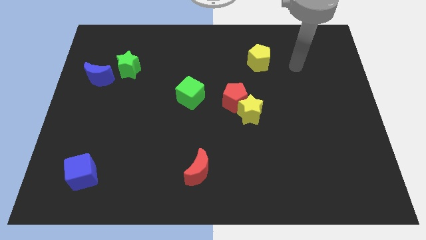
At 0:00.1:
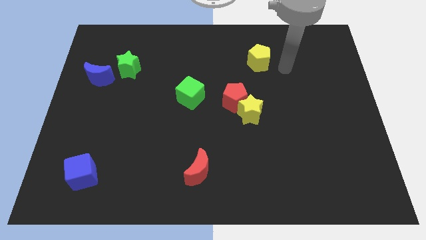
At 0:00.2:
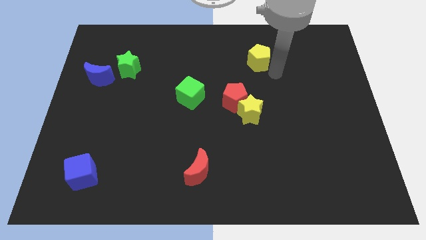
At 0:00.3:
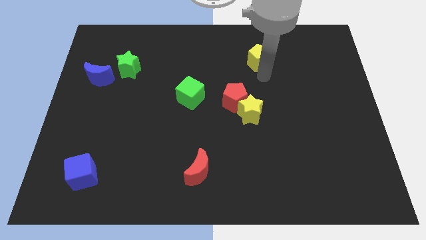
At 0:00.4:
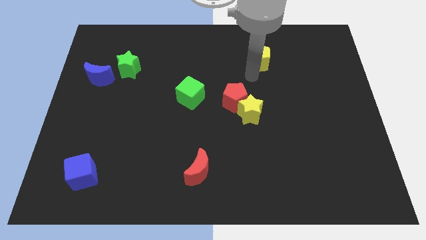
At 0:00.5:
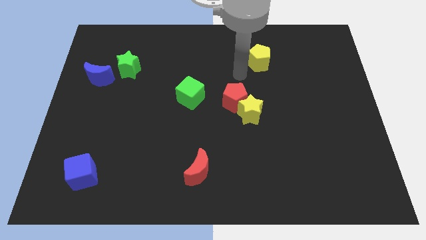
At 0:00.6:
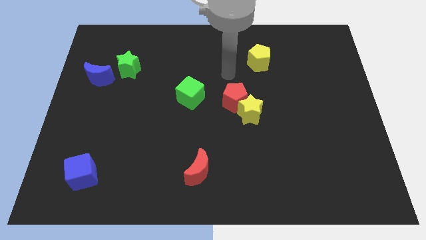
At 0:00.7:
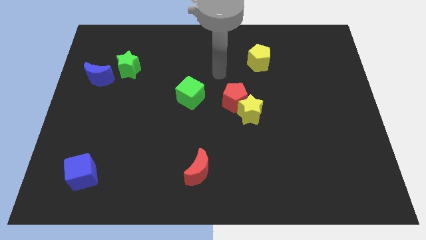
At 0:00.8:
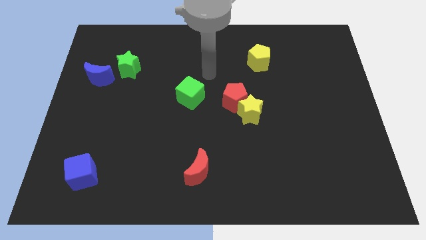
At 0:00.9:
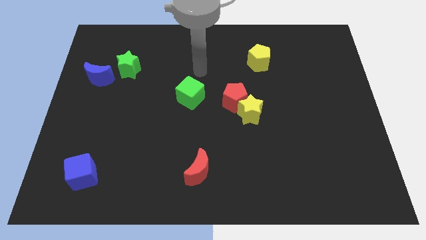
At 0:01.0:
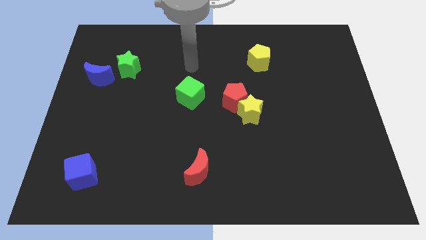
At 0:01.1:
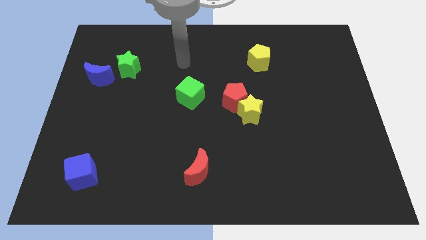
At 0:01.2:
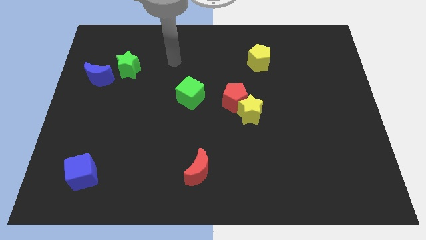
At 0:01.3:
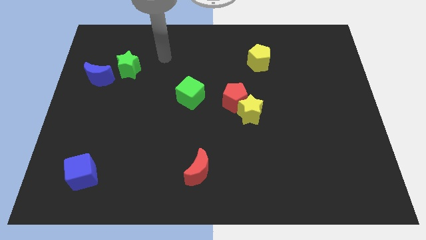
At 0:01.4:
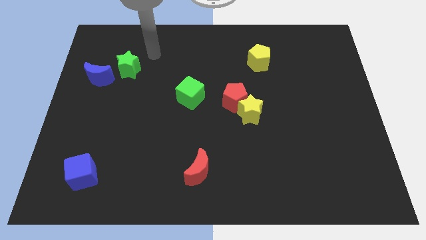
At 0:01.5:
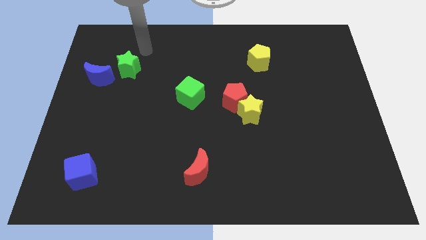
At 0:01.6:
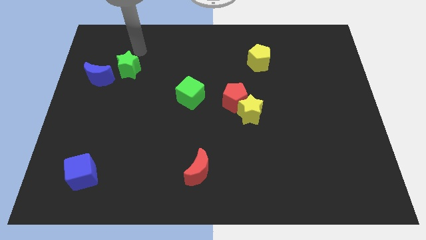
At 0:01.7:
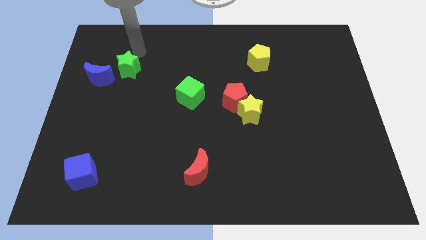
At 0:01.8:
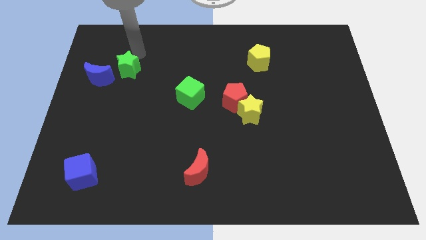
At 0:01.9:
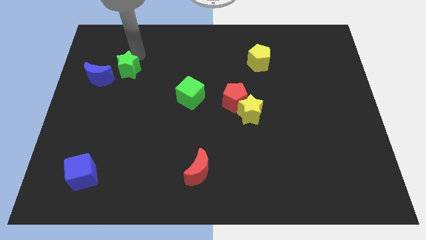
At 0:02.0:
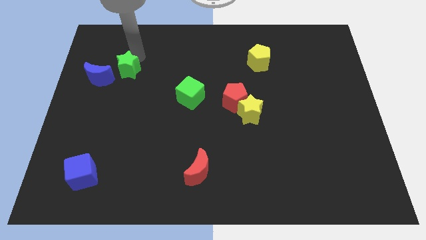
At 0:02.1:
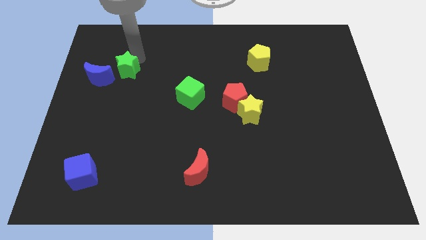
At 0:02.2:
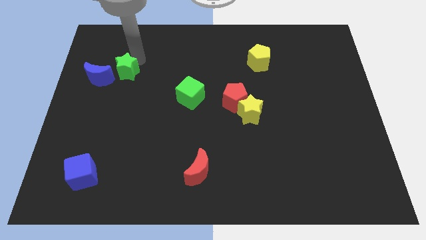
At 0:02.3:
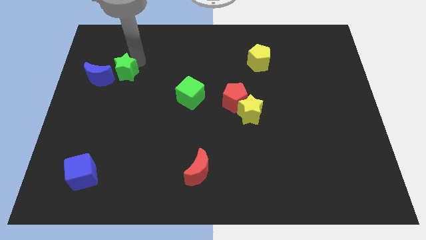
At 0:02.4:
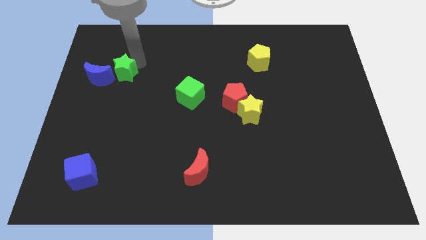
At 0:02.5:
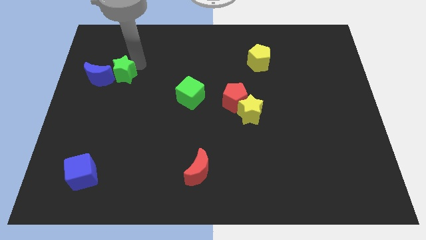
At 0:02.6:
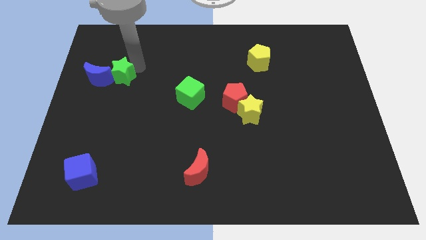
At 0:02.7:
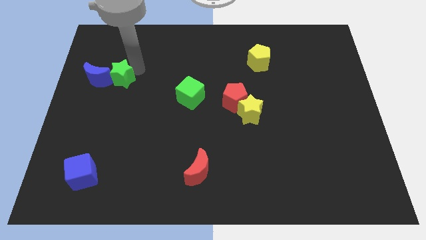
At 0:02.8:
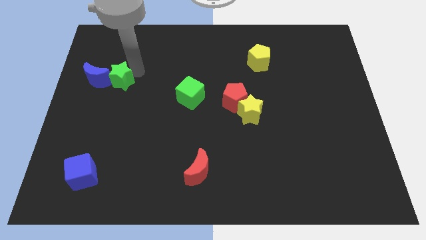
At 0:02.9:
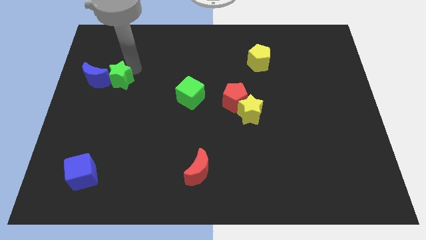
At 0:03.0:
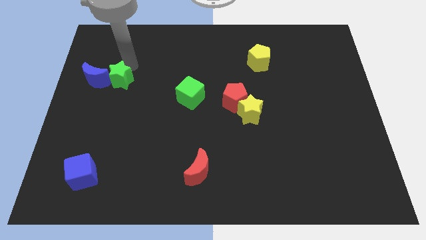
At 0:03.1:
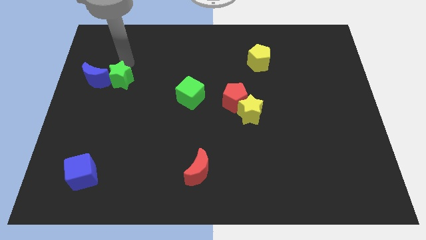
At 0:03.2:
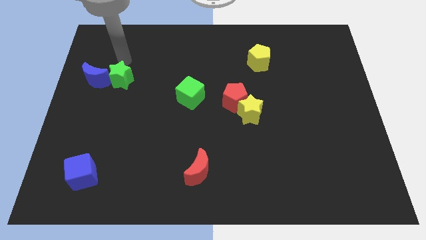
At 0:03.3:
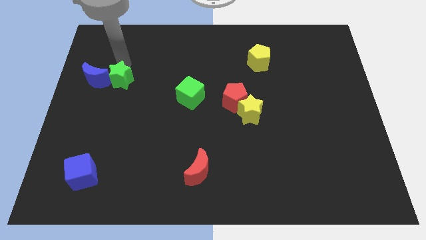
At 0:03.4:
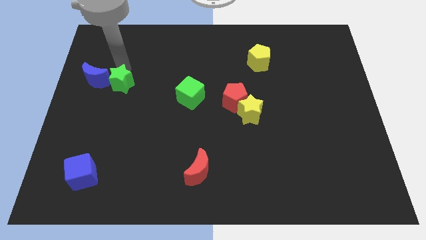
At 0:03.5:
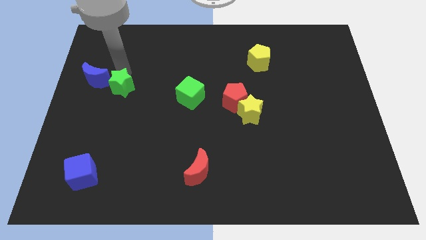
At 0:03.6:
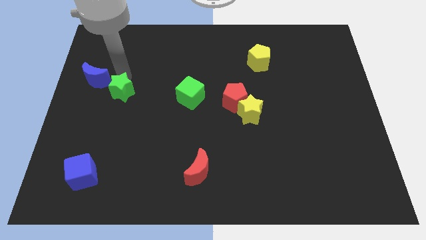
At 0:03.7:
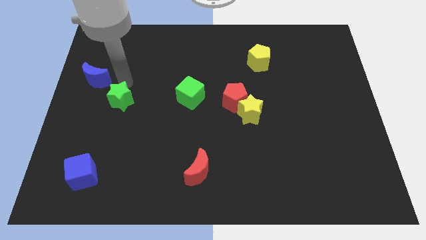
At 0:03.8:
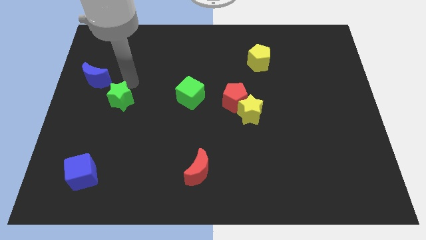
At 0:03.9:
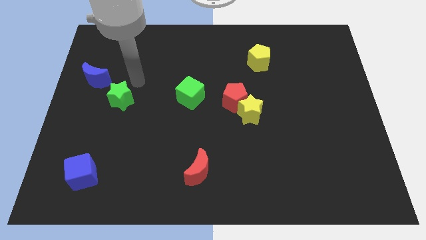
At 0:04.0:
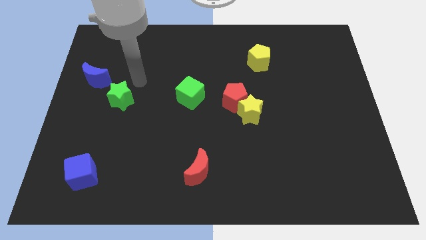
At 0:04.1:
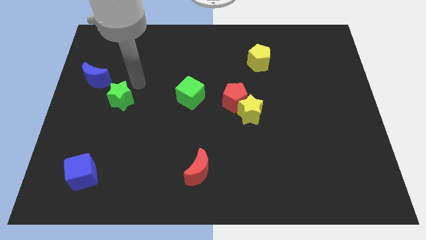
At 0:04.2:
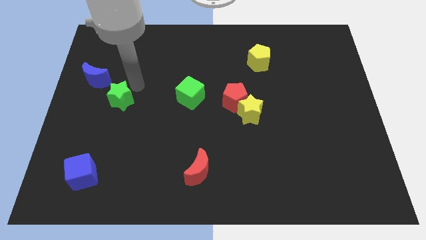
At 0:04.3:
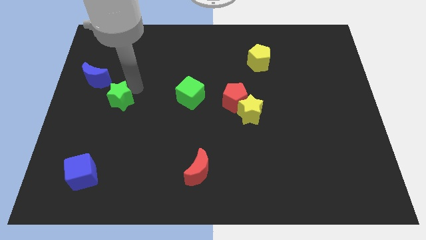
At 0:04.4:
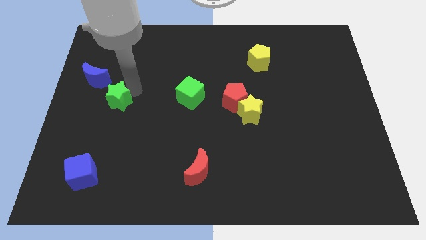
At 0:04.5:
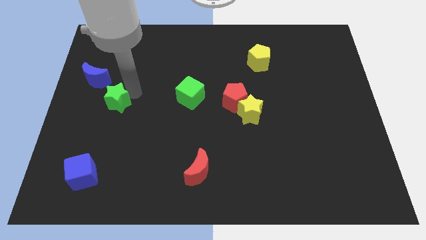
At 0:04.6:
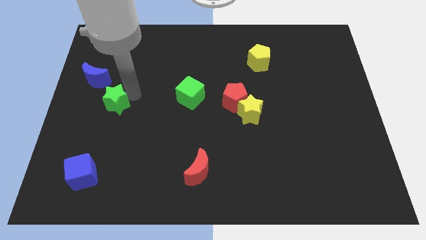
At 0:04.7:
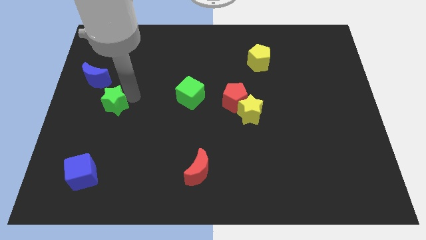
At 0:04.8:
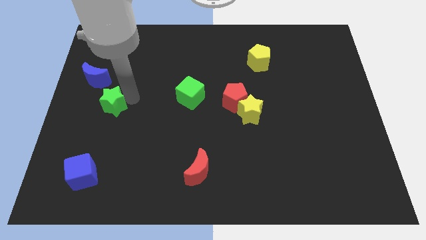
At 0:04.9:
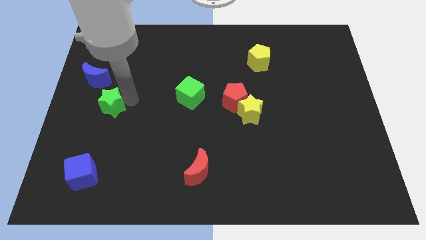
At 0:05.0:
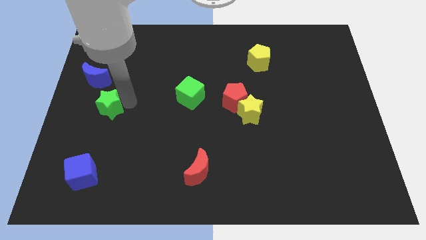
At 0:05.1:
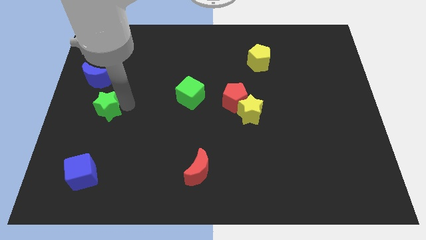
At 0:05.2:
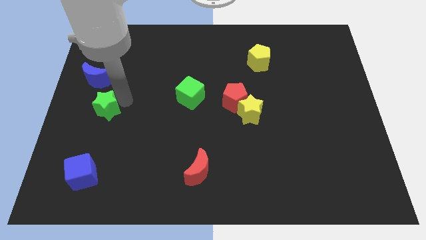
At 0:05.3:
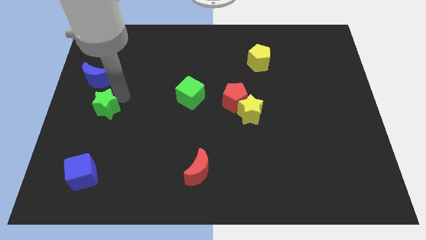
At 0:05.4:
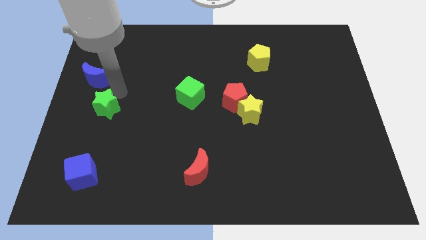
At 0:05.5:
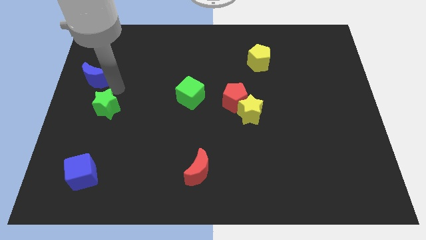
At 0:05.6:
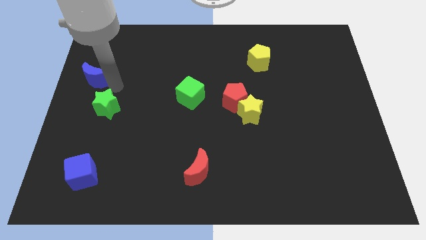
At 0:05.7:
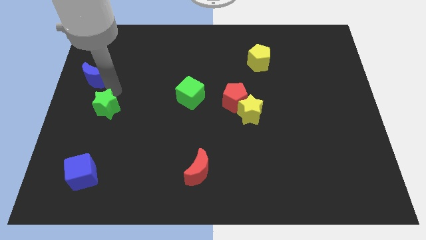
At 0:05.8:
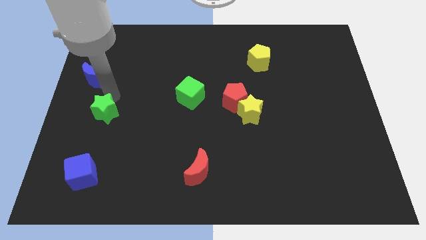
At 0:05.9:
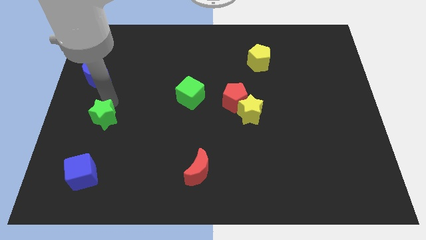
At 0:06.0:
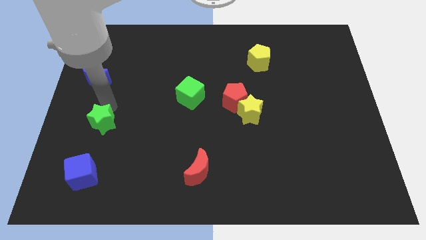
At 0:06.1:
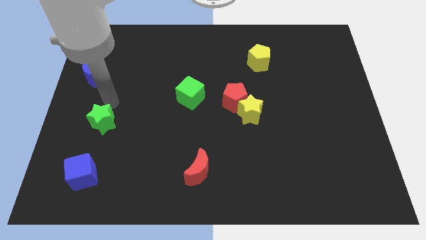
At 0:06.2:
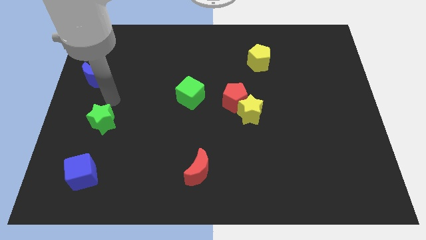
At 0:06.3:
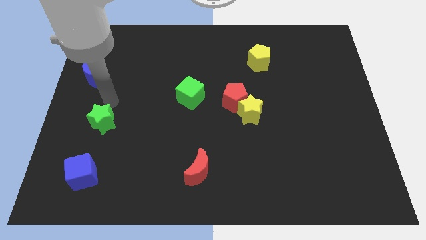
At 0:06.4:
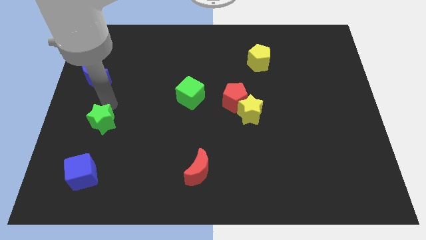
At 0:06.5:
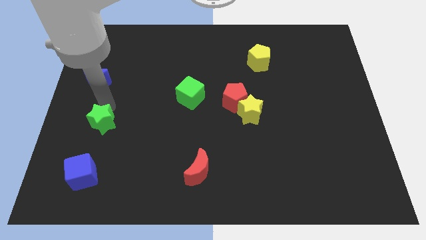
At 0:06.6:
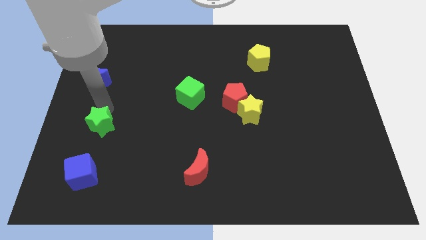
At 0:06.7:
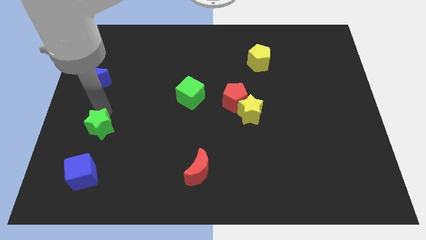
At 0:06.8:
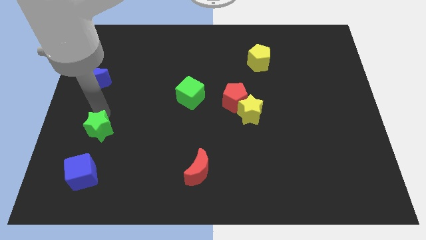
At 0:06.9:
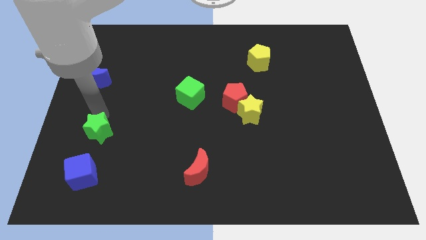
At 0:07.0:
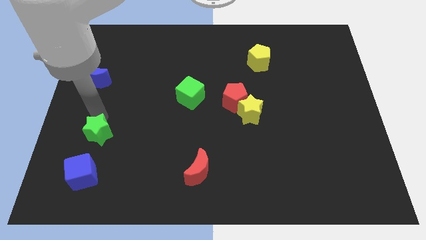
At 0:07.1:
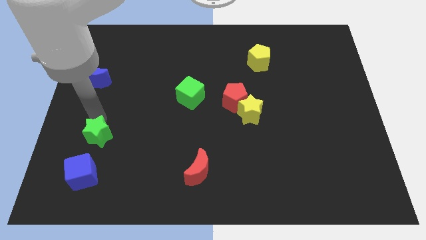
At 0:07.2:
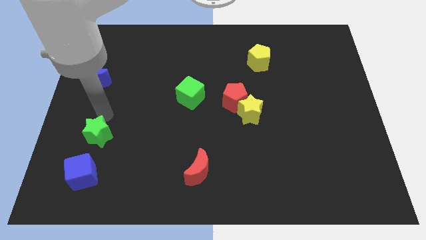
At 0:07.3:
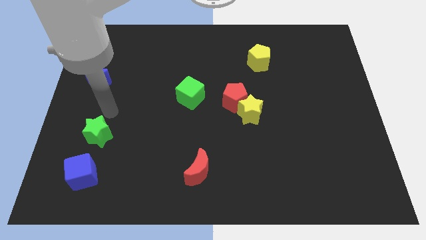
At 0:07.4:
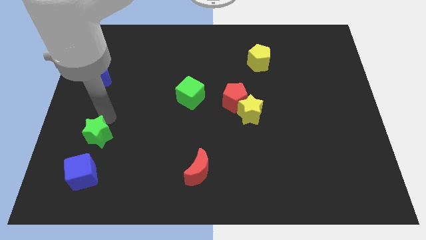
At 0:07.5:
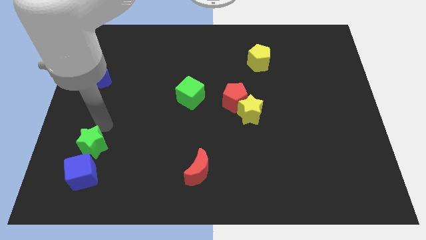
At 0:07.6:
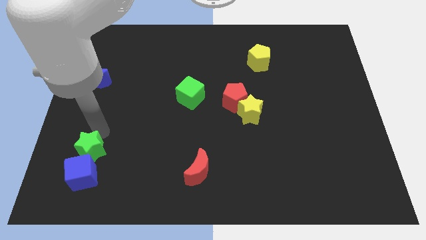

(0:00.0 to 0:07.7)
put the green star towards the blue cube

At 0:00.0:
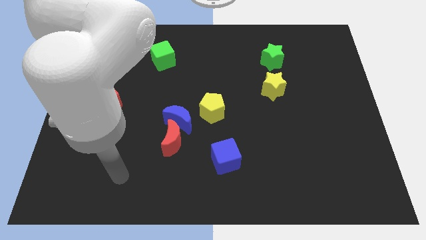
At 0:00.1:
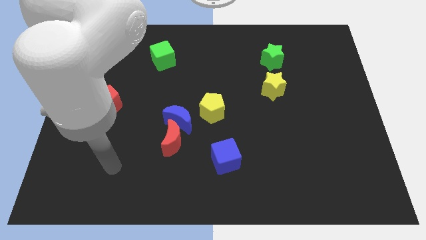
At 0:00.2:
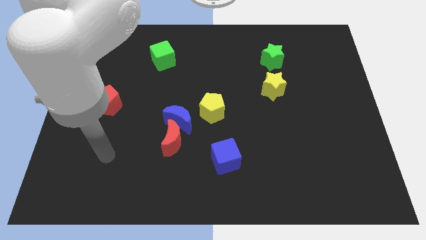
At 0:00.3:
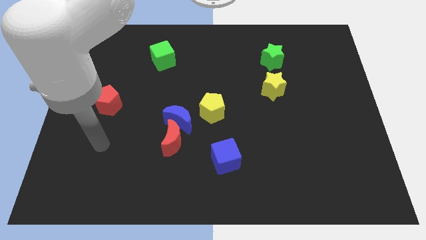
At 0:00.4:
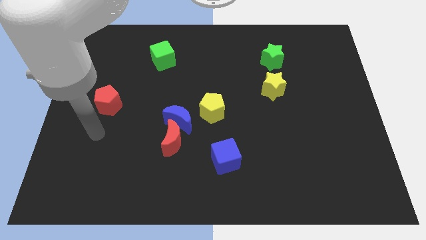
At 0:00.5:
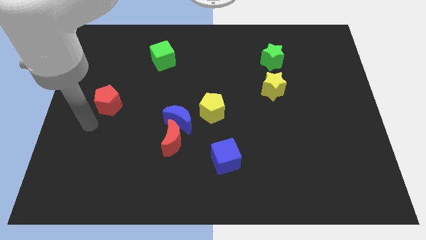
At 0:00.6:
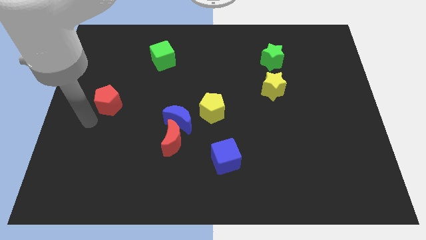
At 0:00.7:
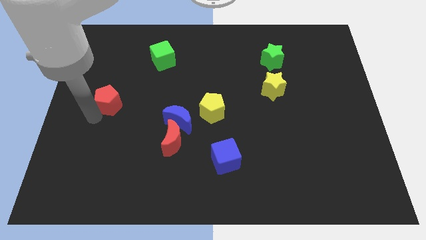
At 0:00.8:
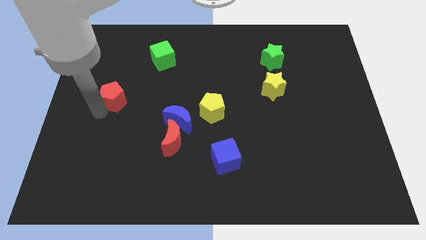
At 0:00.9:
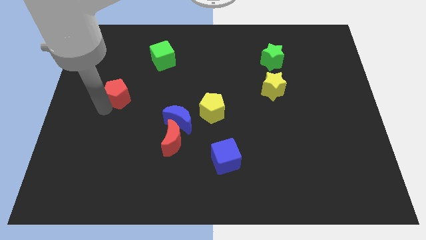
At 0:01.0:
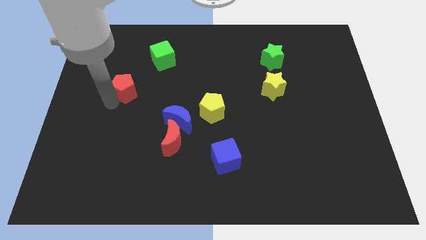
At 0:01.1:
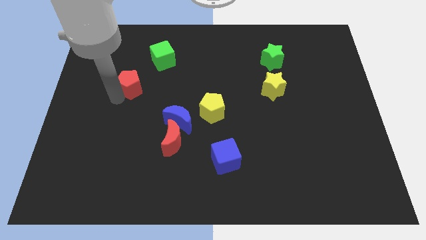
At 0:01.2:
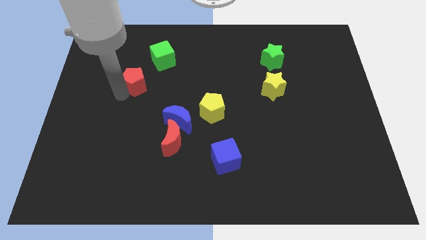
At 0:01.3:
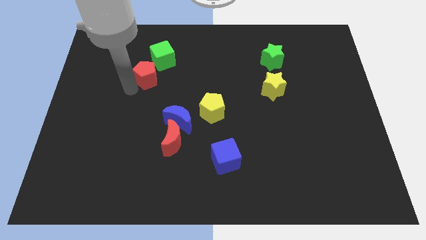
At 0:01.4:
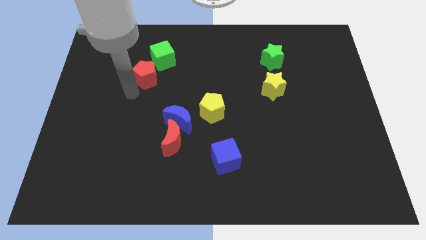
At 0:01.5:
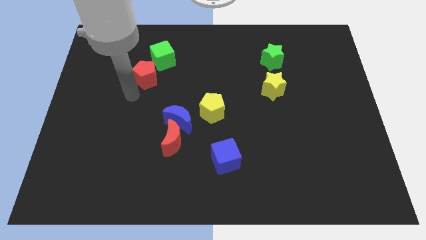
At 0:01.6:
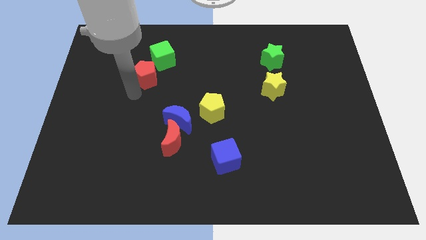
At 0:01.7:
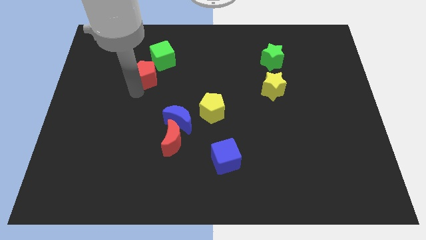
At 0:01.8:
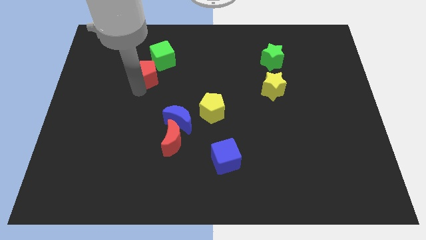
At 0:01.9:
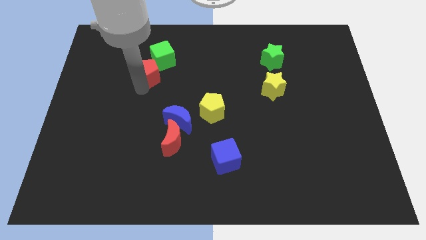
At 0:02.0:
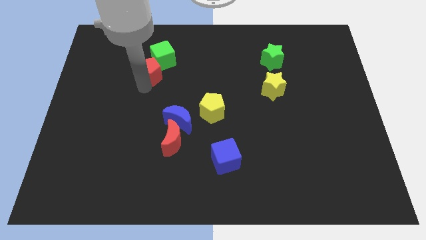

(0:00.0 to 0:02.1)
put the red pentagon next to the green cube
